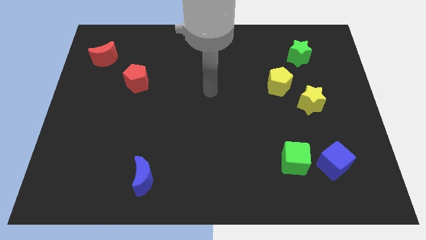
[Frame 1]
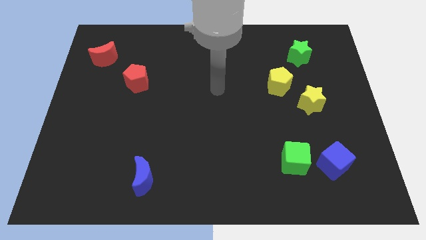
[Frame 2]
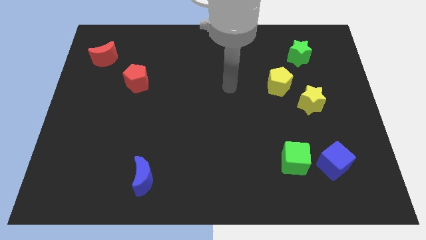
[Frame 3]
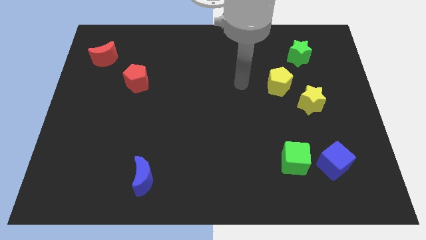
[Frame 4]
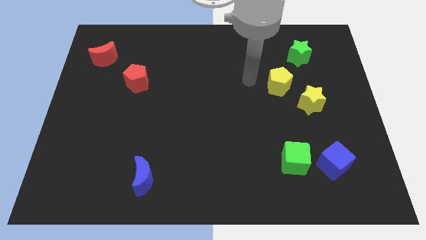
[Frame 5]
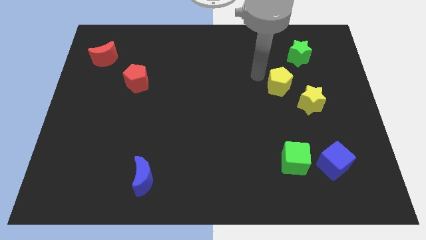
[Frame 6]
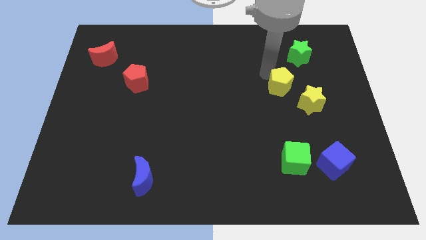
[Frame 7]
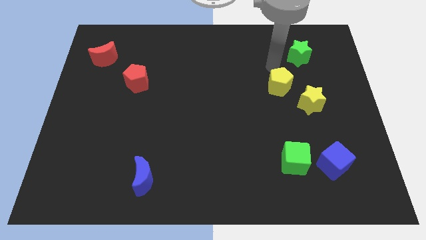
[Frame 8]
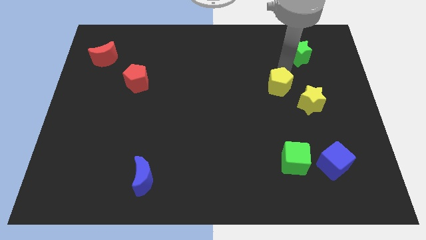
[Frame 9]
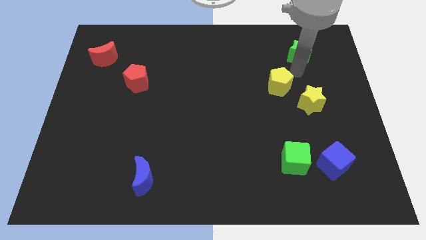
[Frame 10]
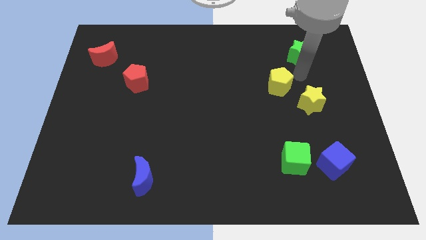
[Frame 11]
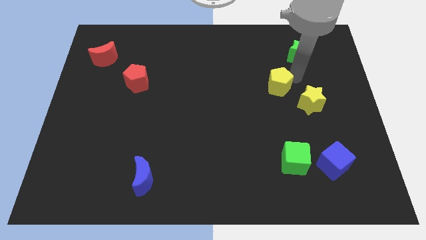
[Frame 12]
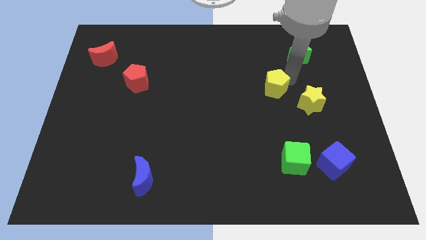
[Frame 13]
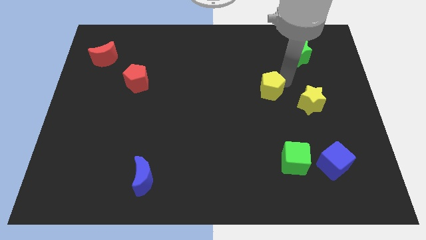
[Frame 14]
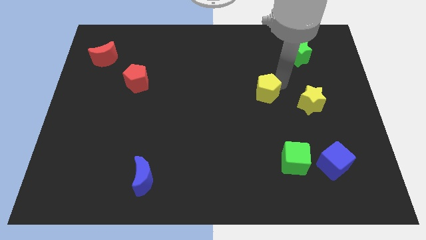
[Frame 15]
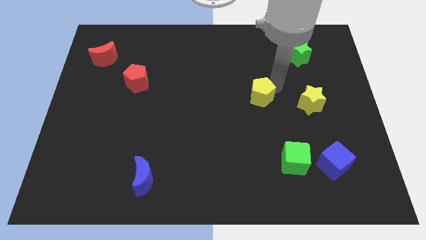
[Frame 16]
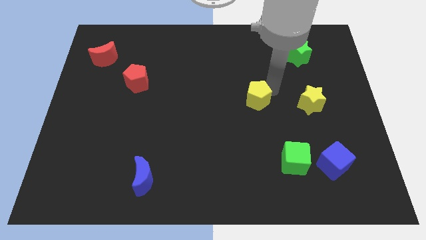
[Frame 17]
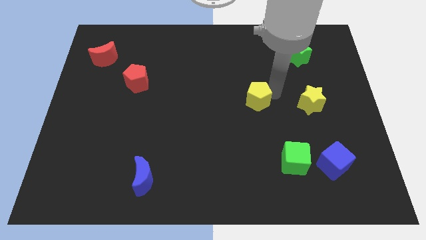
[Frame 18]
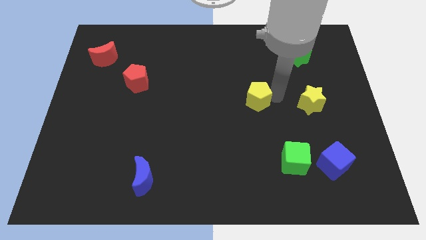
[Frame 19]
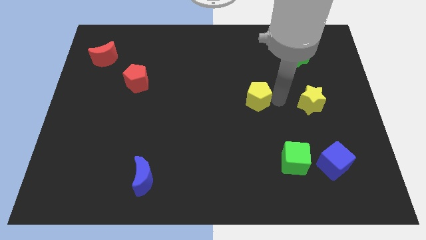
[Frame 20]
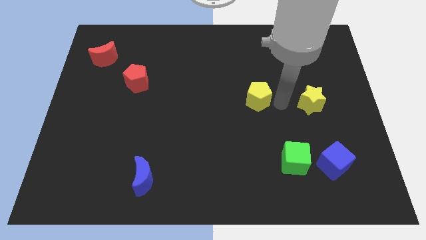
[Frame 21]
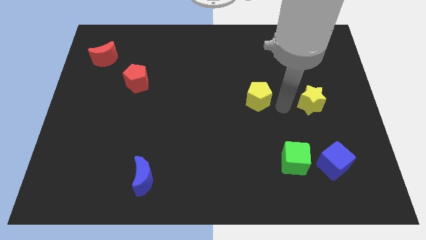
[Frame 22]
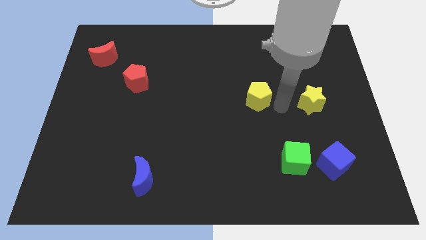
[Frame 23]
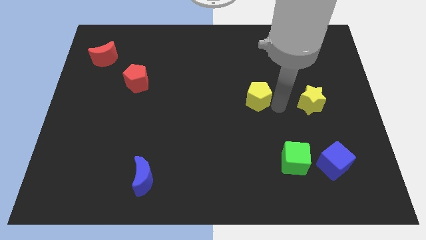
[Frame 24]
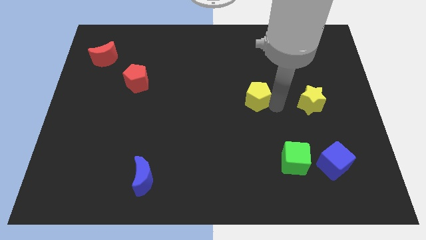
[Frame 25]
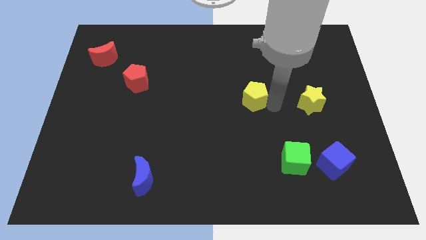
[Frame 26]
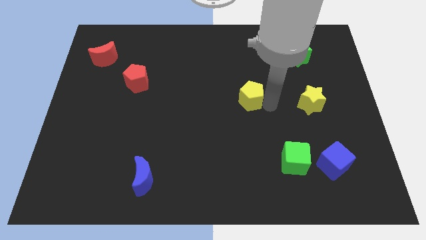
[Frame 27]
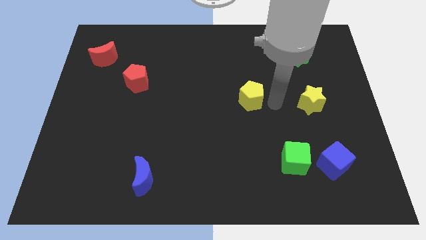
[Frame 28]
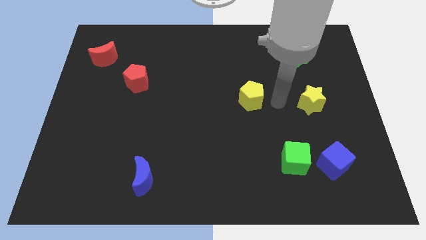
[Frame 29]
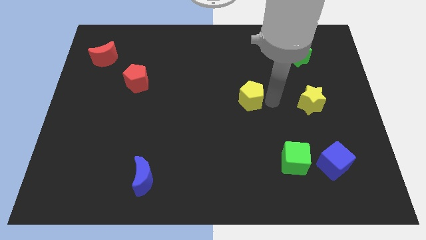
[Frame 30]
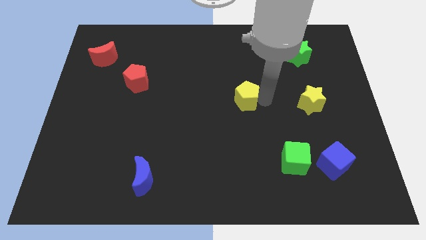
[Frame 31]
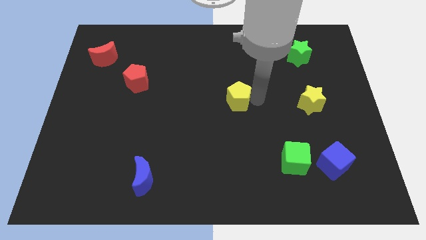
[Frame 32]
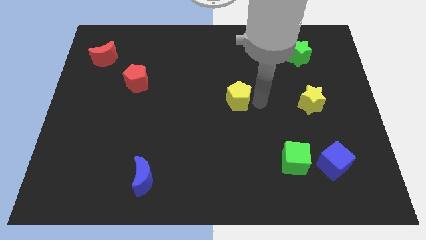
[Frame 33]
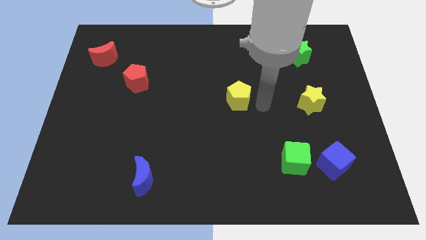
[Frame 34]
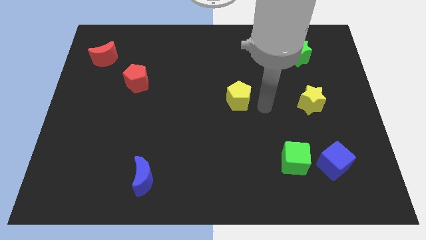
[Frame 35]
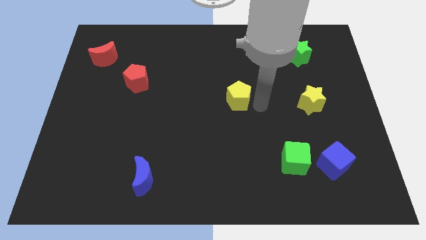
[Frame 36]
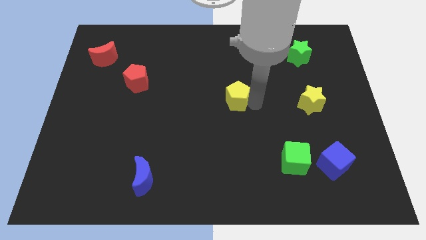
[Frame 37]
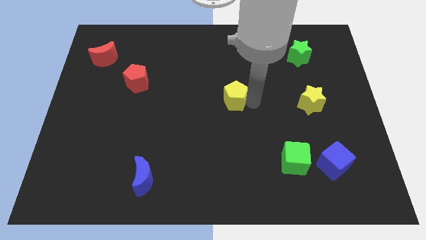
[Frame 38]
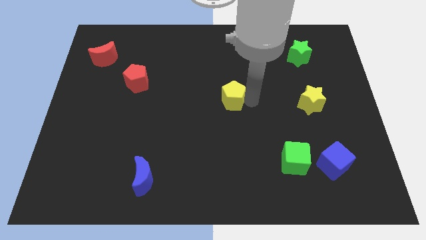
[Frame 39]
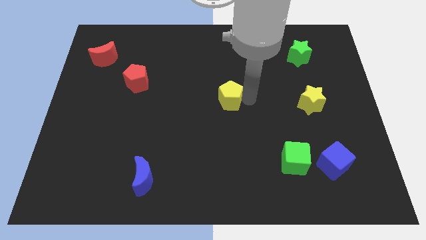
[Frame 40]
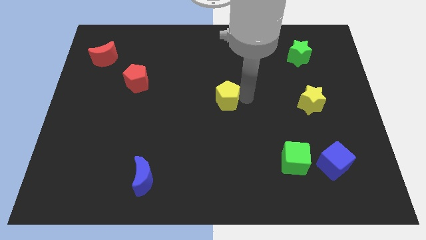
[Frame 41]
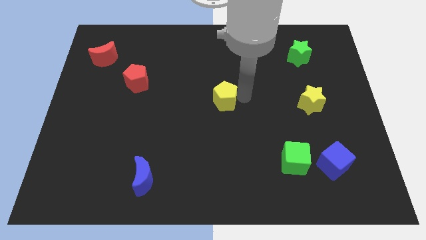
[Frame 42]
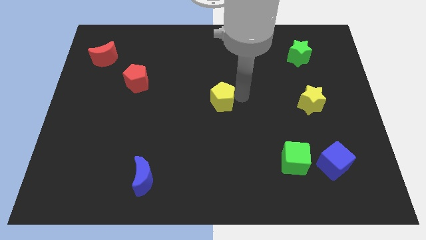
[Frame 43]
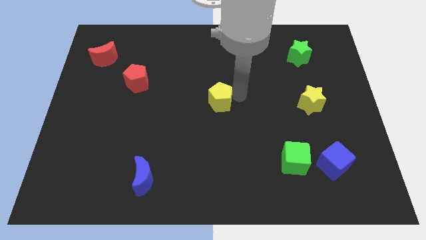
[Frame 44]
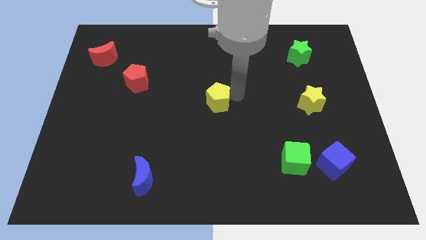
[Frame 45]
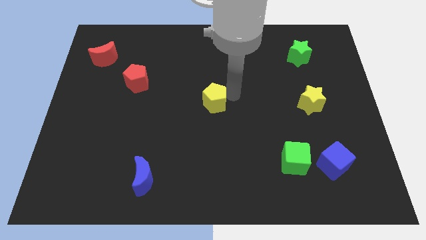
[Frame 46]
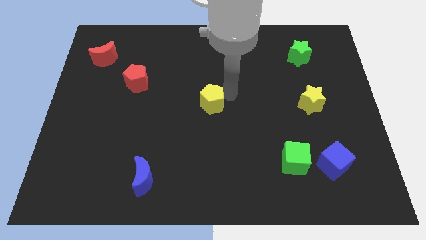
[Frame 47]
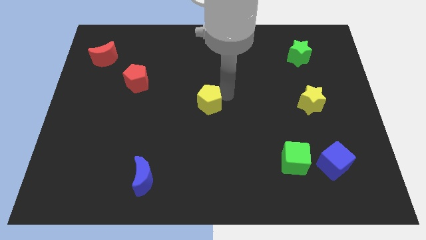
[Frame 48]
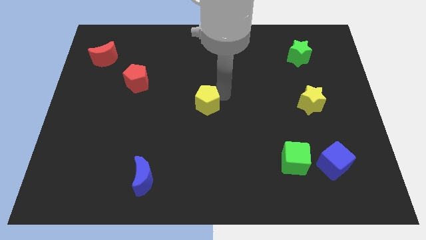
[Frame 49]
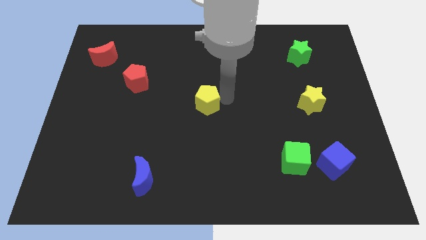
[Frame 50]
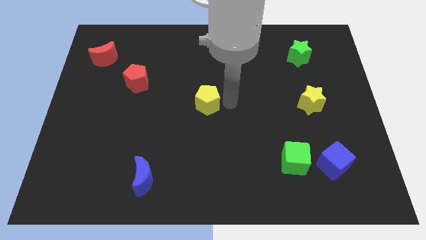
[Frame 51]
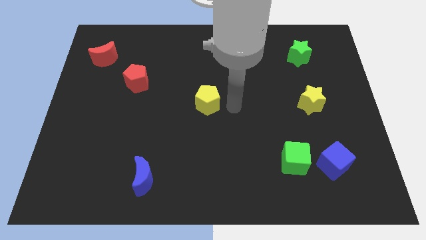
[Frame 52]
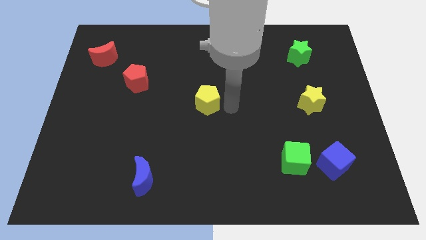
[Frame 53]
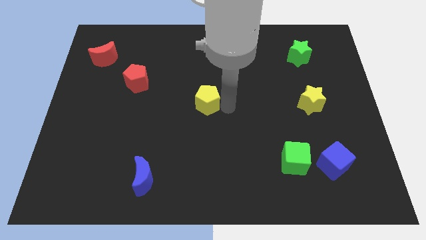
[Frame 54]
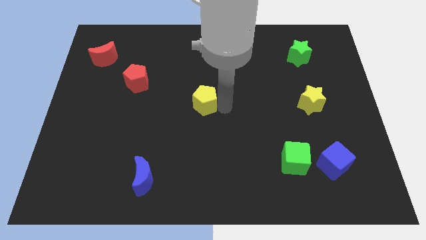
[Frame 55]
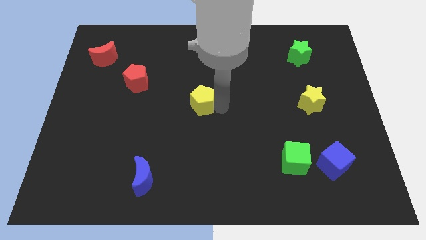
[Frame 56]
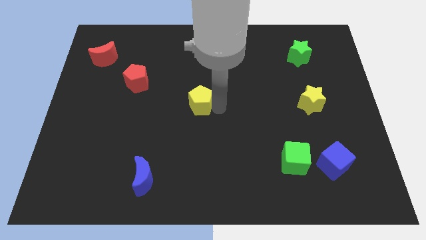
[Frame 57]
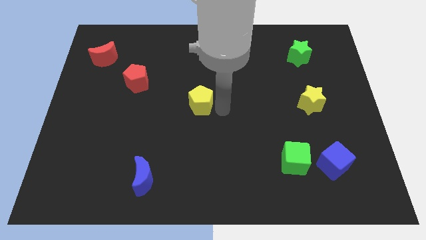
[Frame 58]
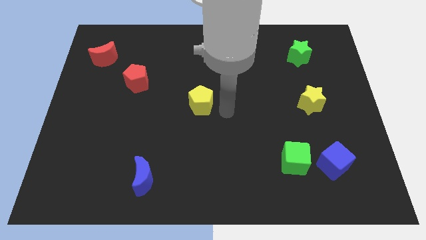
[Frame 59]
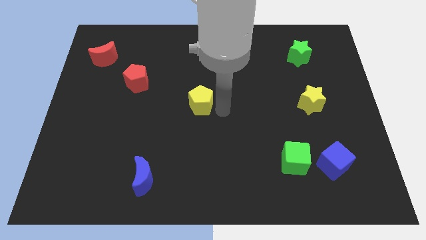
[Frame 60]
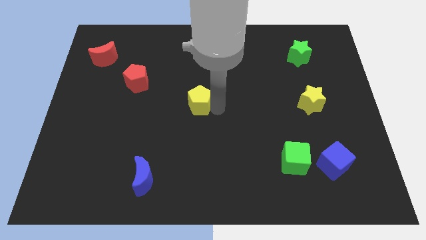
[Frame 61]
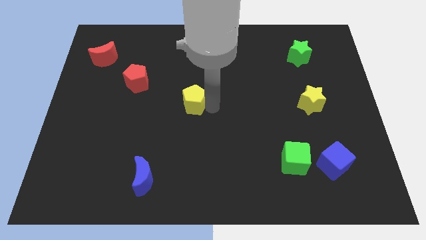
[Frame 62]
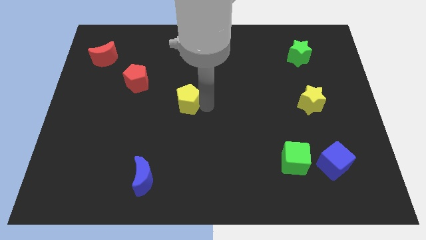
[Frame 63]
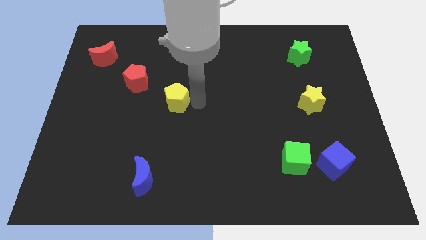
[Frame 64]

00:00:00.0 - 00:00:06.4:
push the yellow pentagon to the bottom right side of the red pentagon

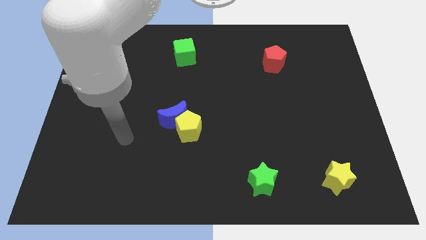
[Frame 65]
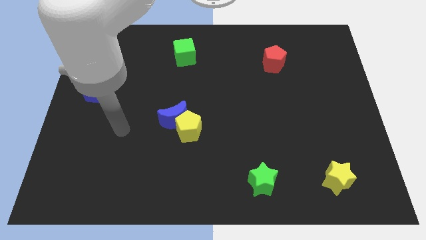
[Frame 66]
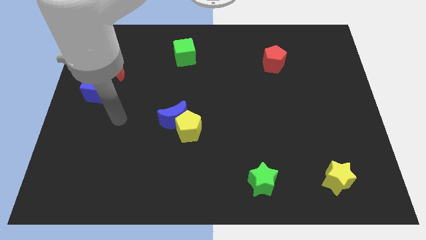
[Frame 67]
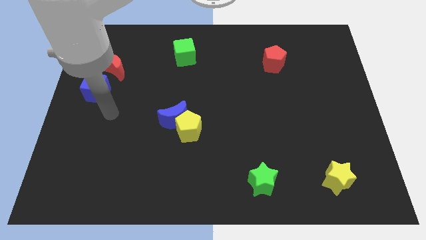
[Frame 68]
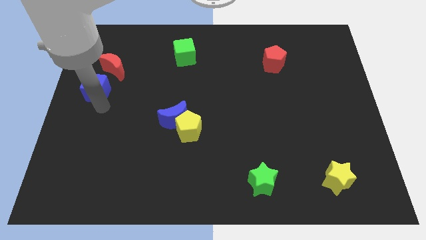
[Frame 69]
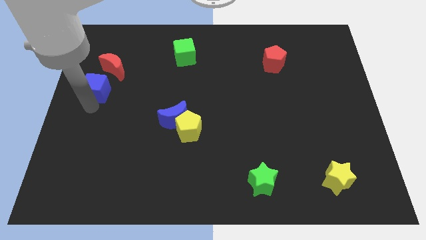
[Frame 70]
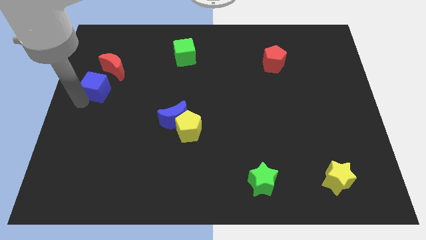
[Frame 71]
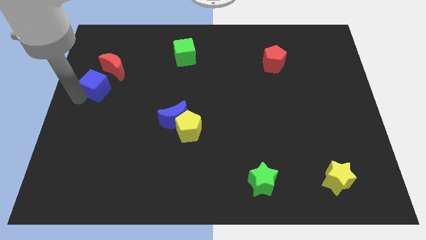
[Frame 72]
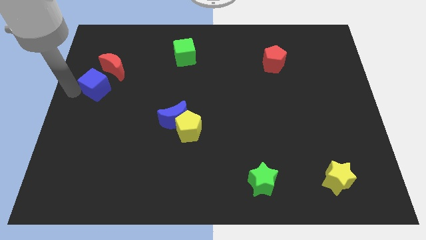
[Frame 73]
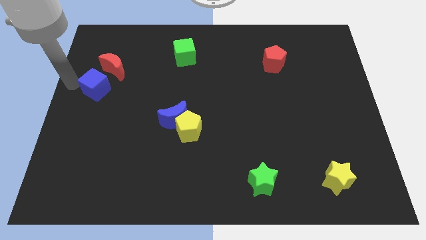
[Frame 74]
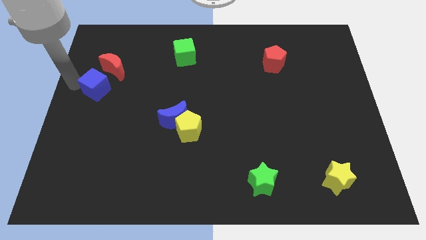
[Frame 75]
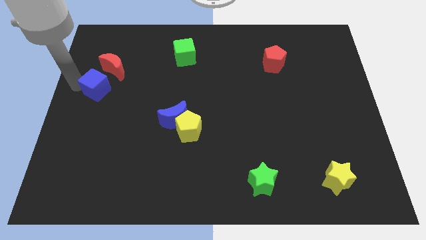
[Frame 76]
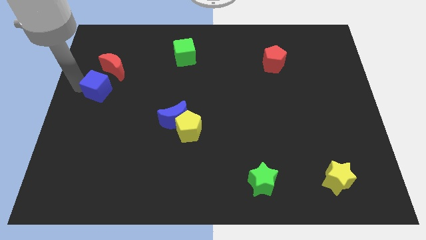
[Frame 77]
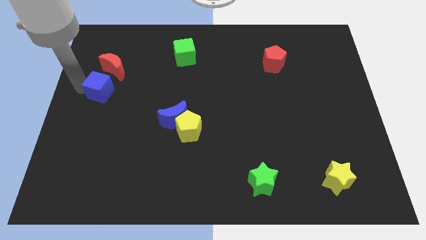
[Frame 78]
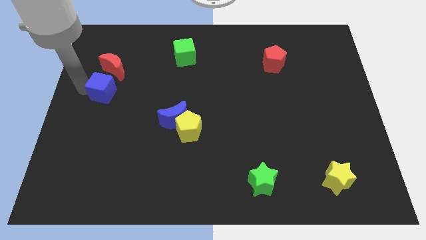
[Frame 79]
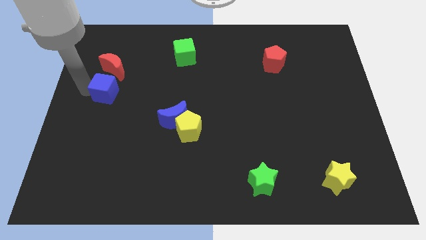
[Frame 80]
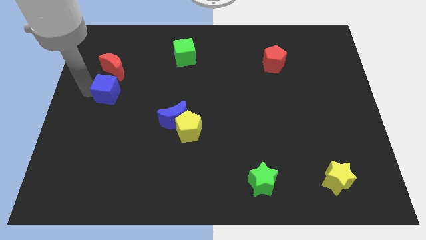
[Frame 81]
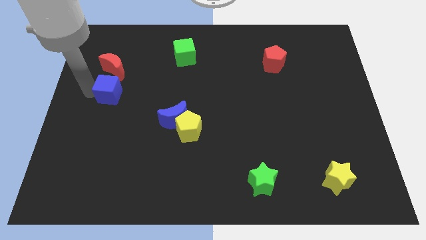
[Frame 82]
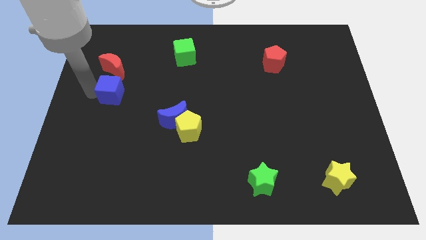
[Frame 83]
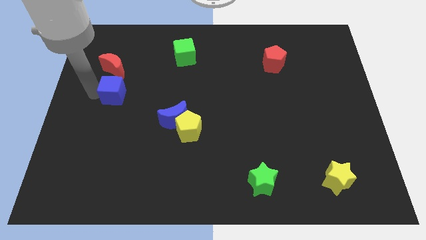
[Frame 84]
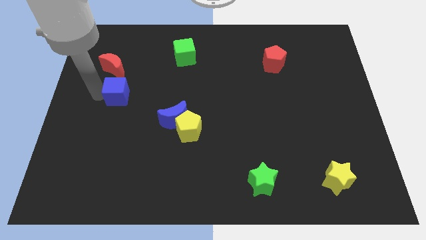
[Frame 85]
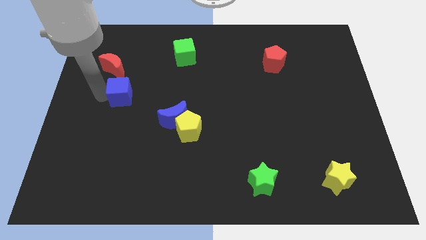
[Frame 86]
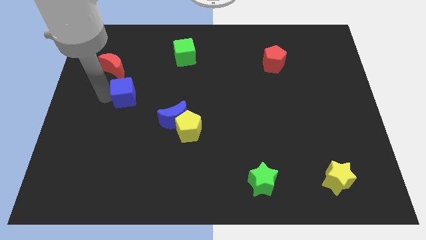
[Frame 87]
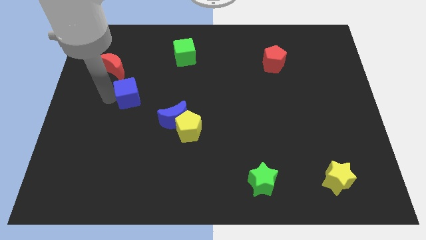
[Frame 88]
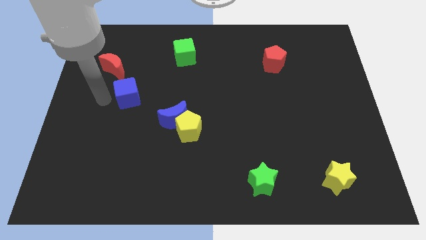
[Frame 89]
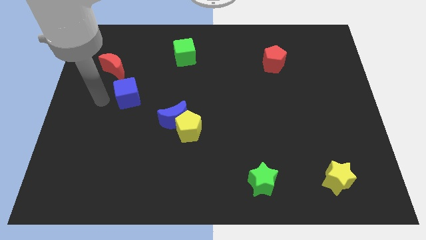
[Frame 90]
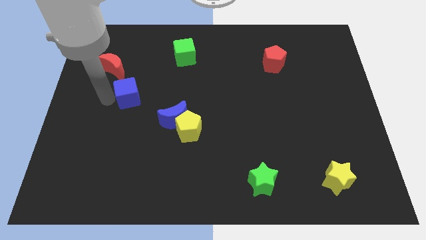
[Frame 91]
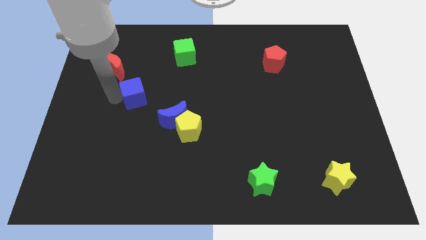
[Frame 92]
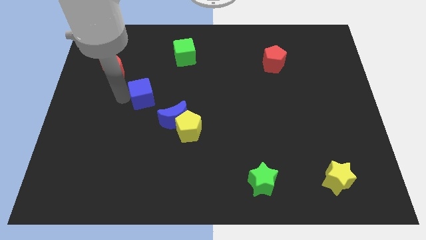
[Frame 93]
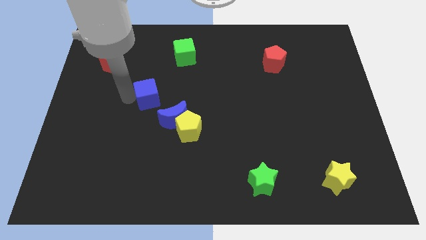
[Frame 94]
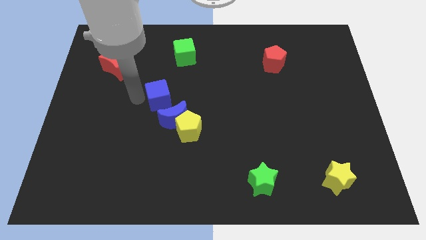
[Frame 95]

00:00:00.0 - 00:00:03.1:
slide the blue cube to the top side of the blue moon
